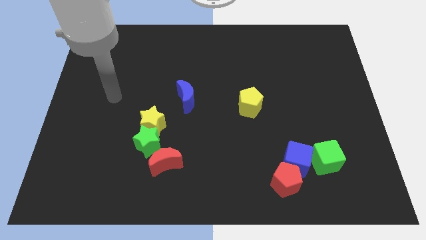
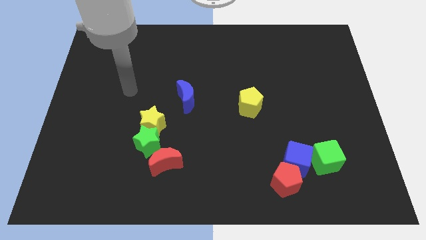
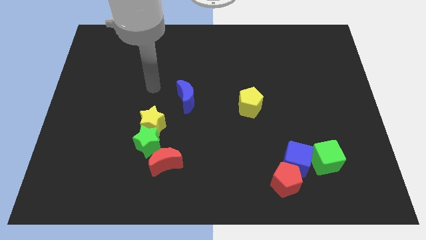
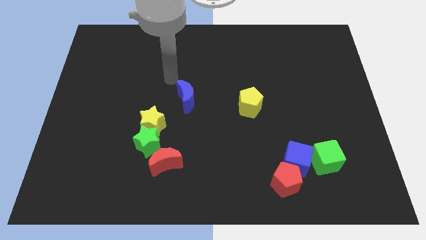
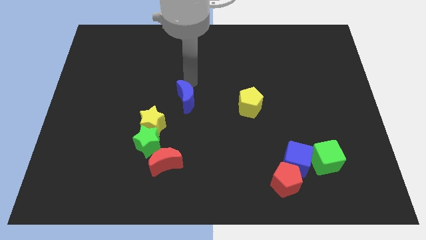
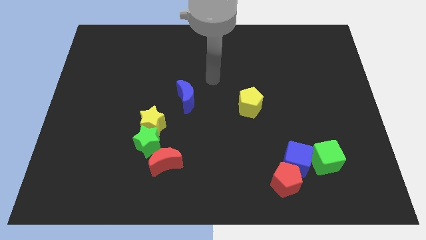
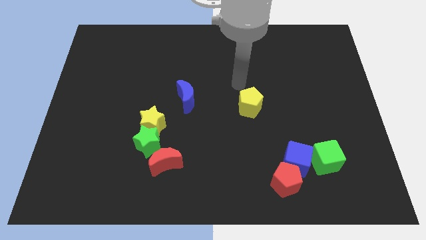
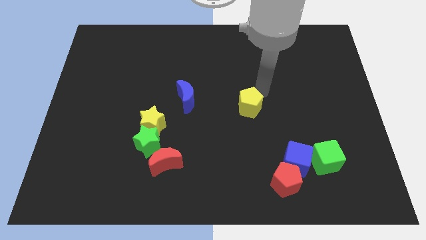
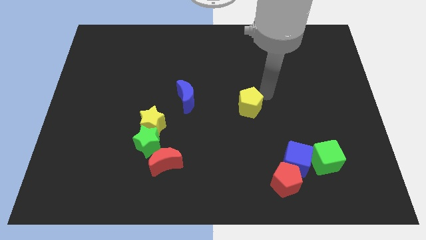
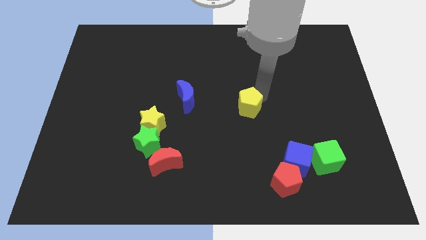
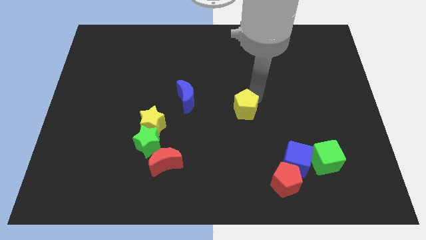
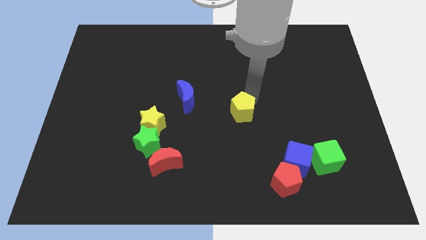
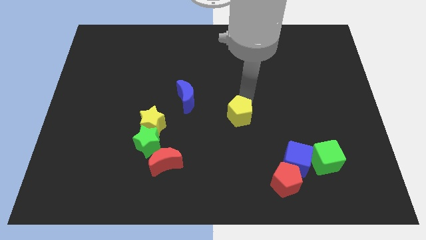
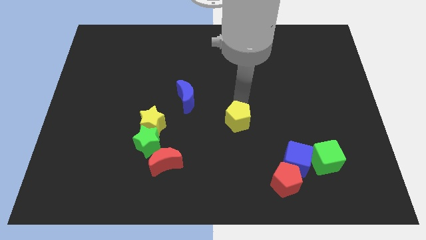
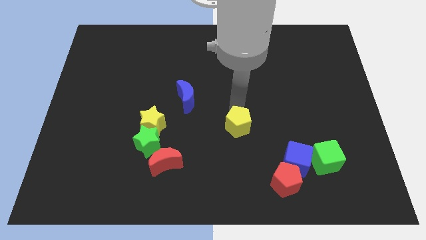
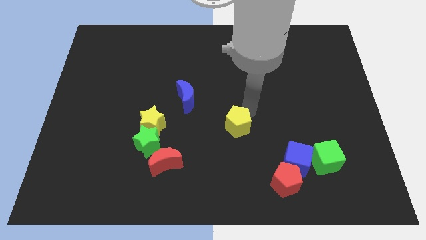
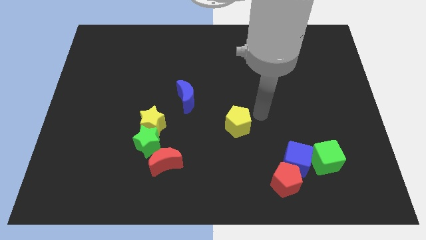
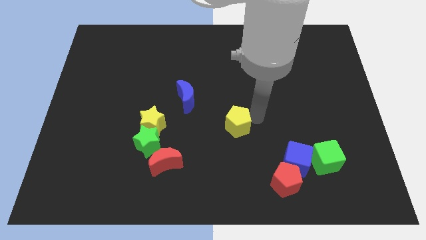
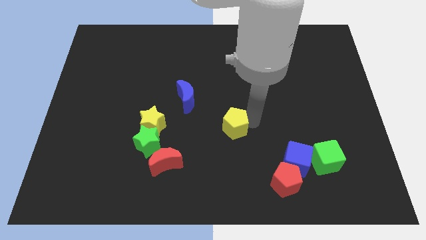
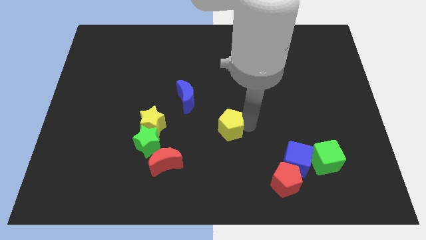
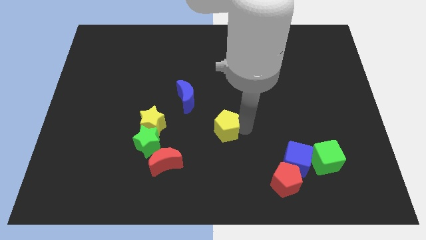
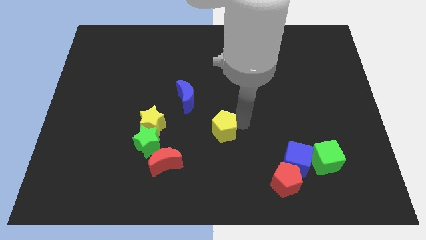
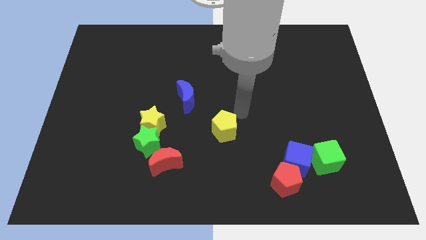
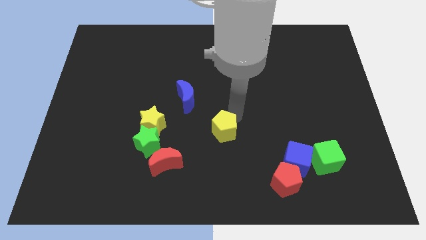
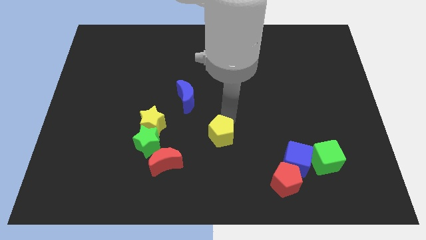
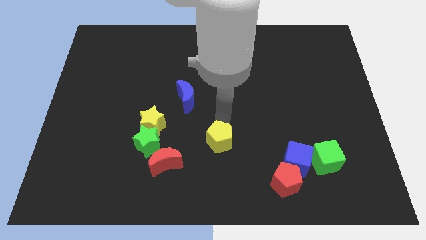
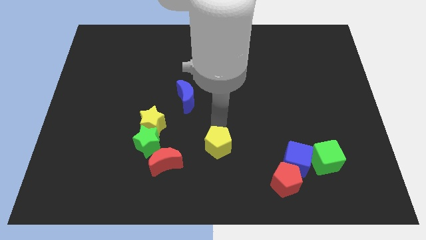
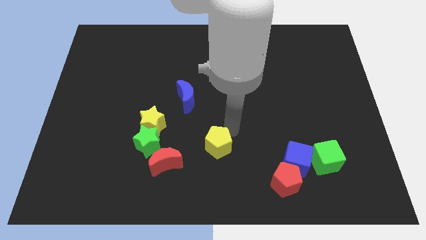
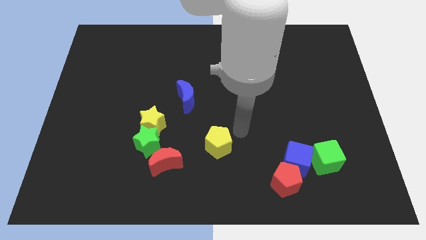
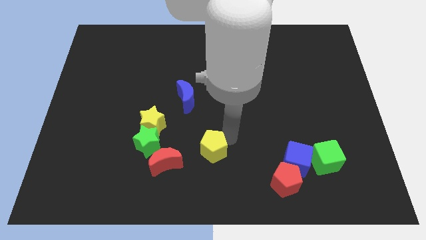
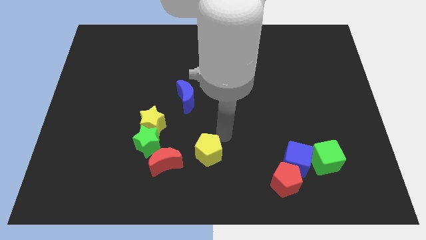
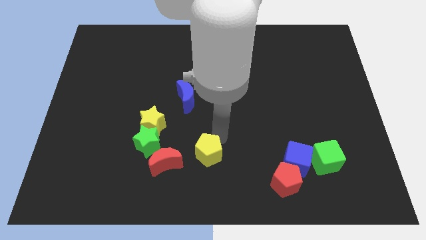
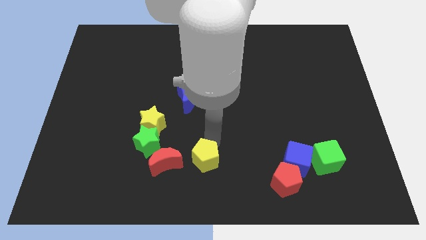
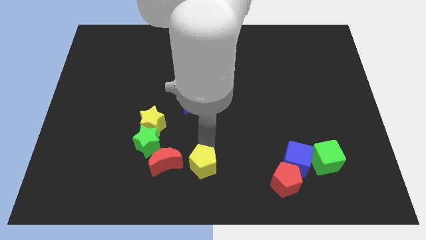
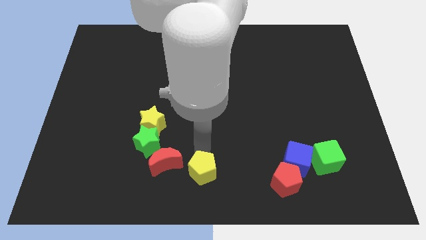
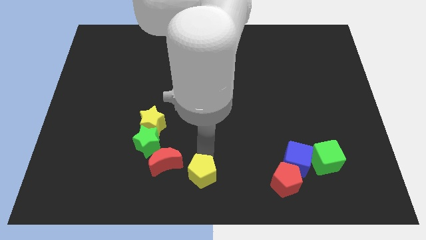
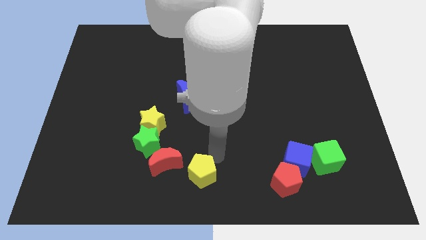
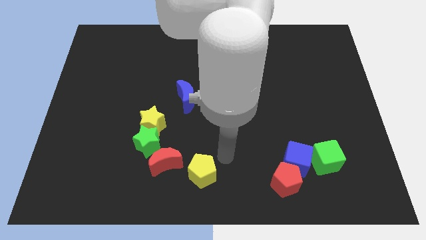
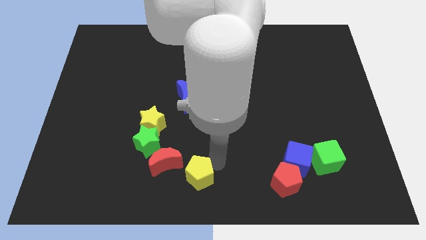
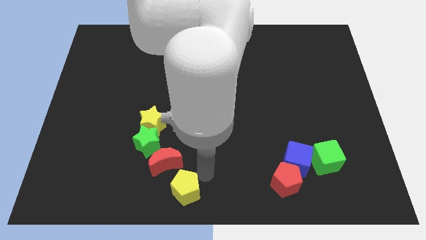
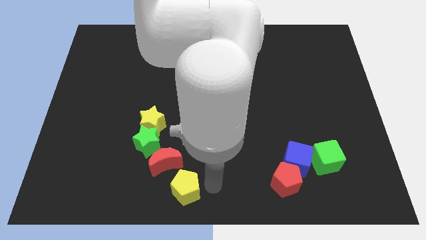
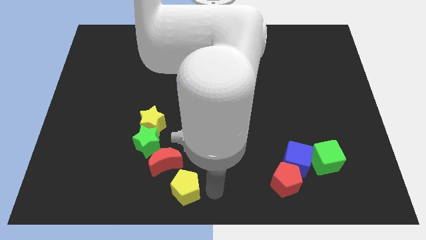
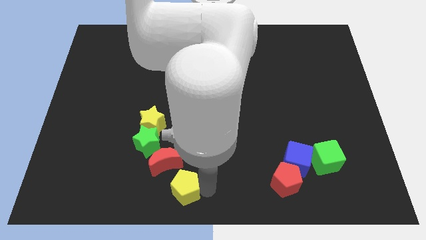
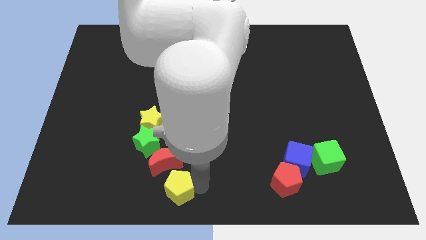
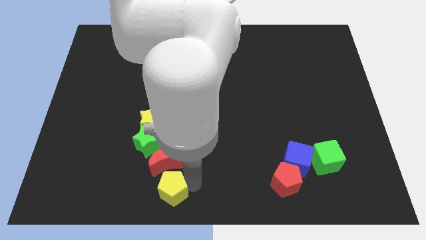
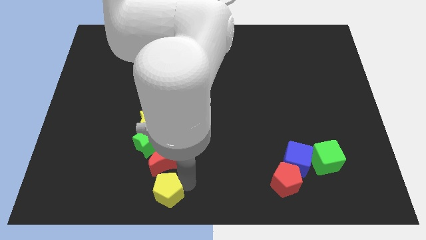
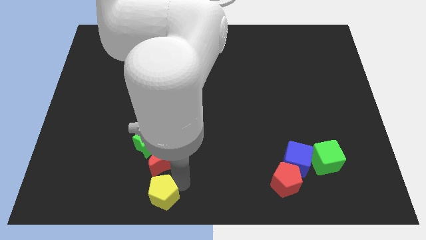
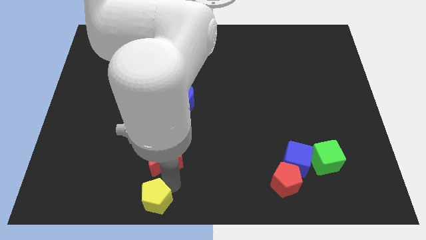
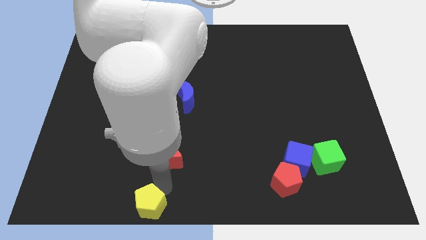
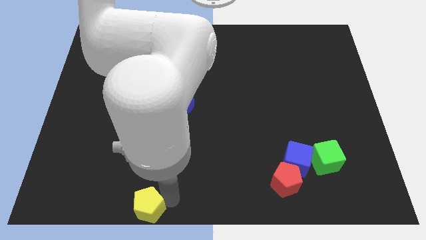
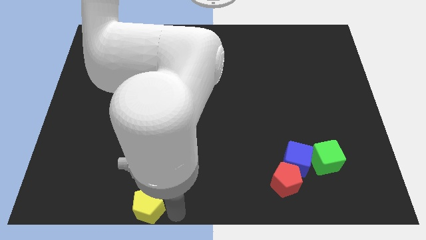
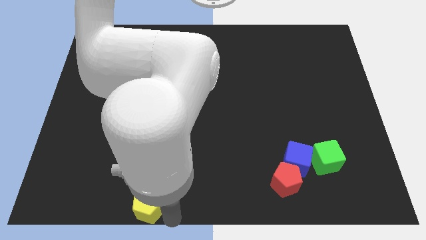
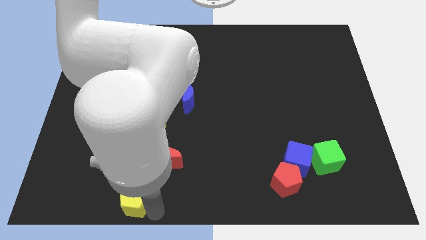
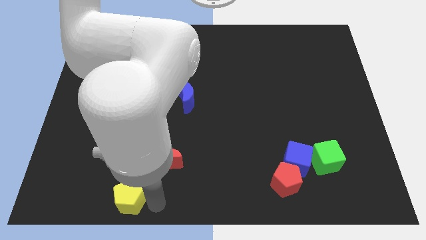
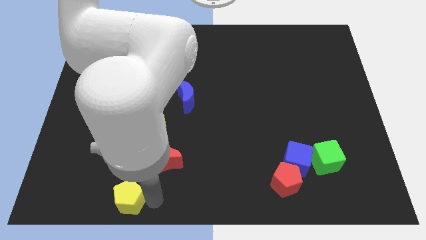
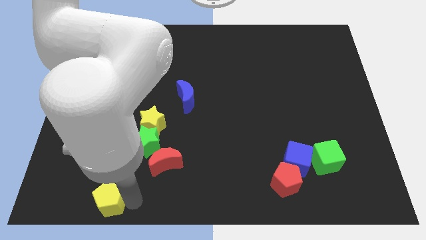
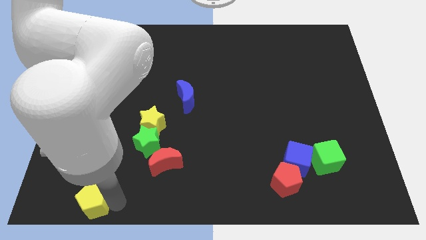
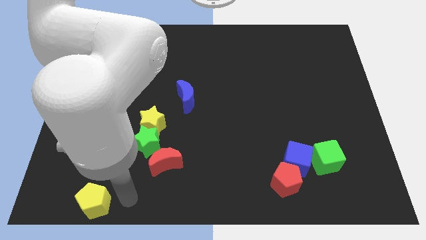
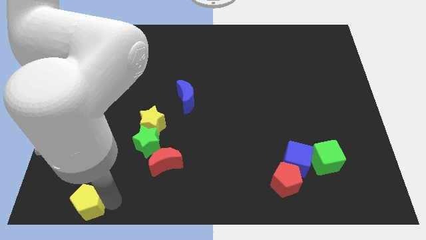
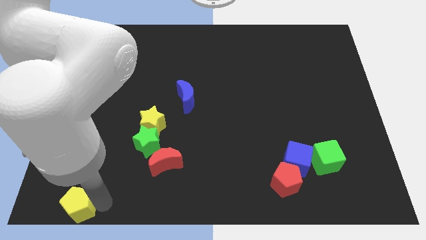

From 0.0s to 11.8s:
move the yellow pentagon to the bottom left
